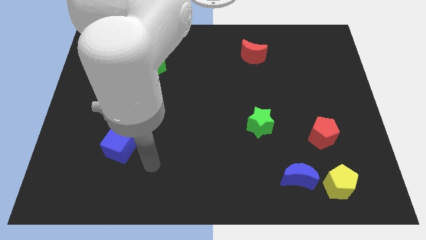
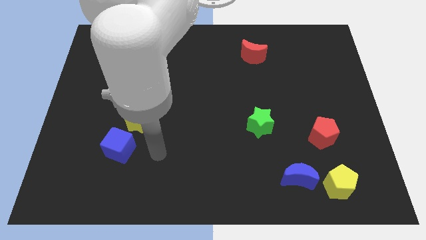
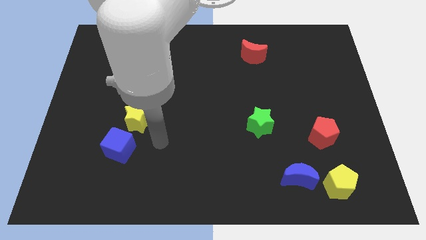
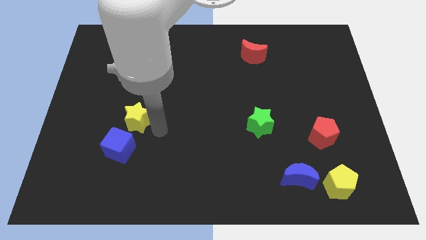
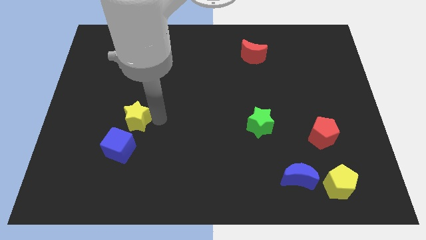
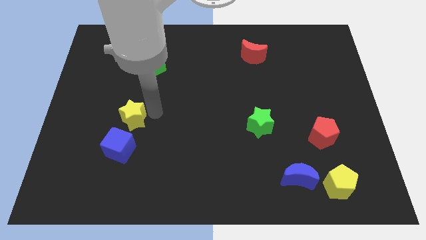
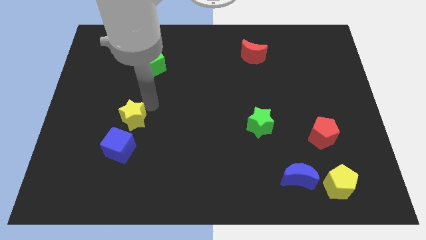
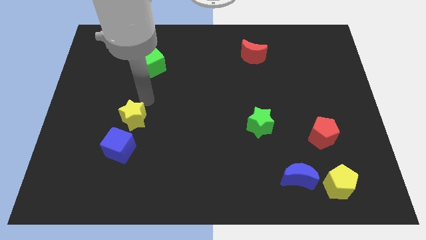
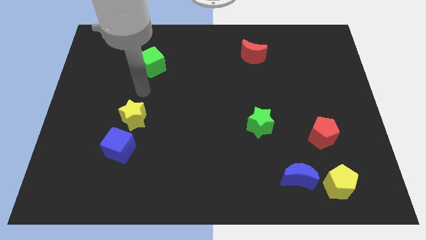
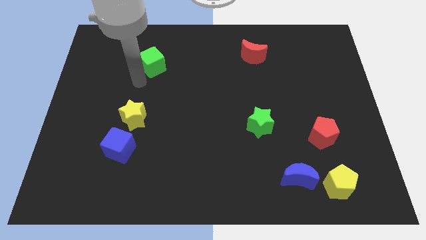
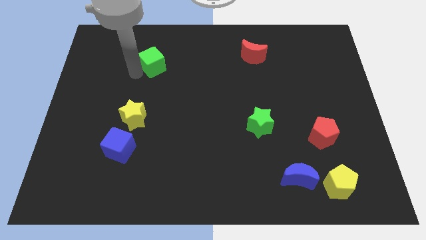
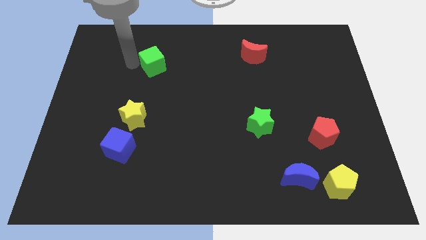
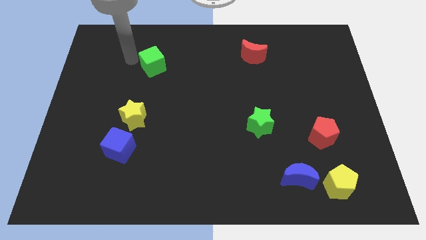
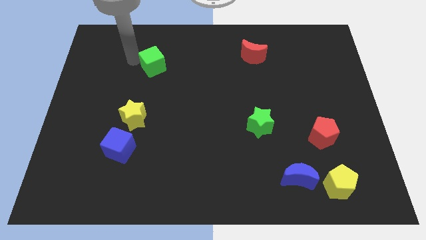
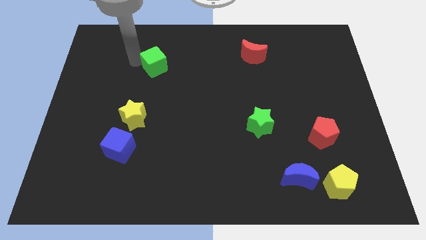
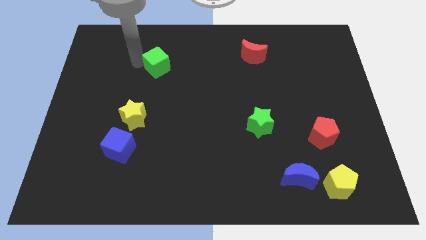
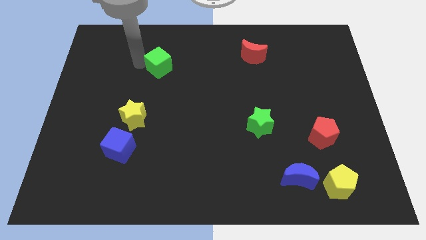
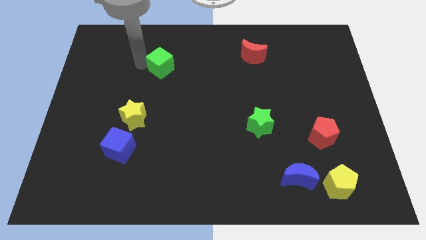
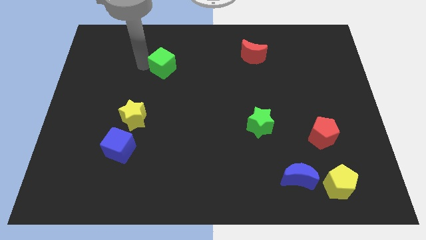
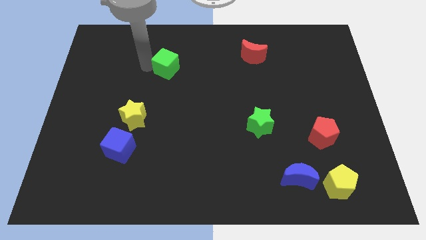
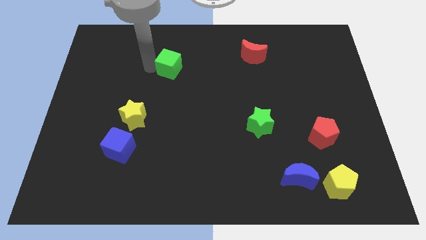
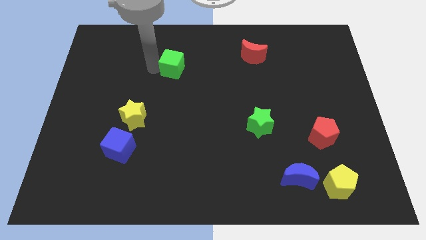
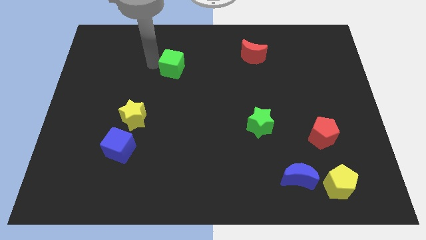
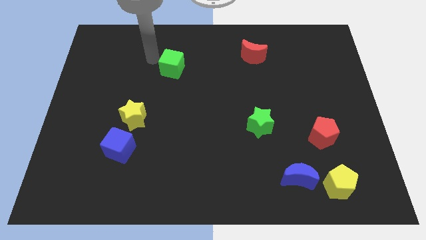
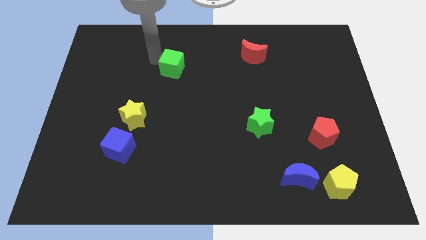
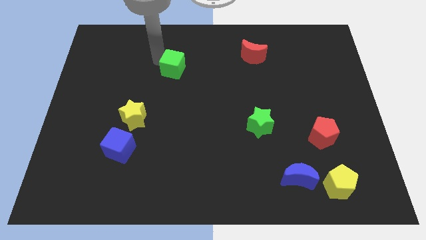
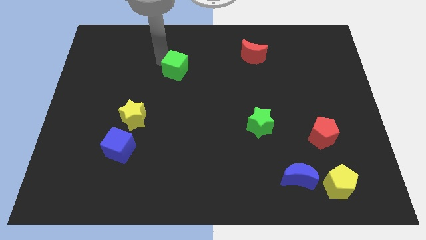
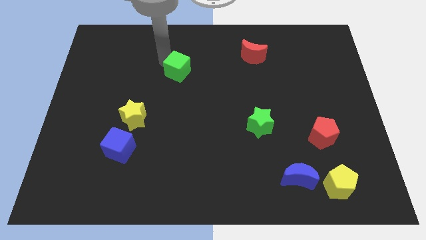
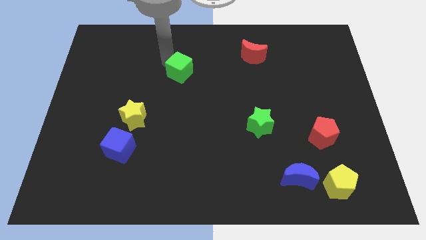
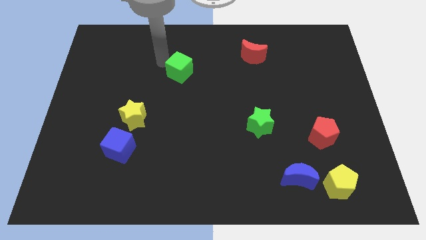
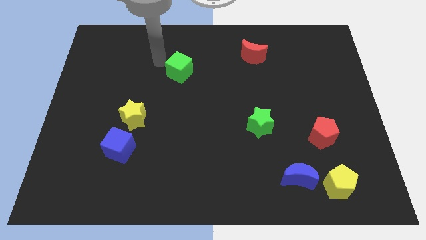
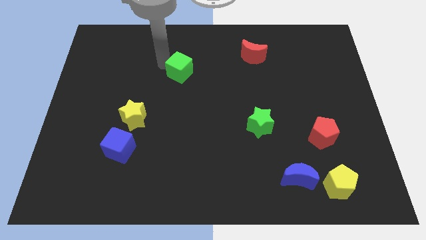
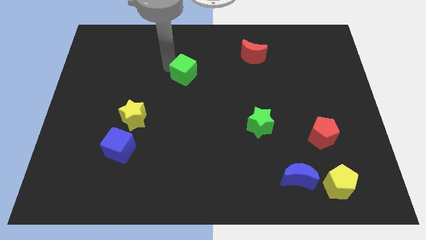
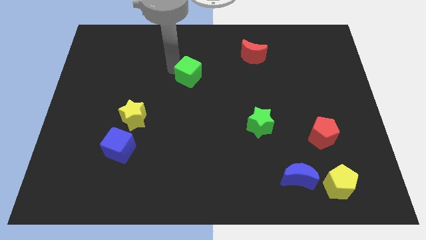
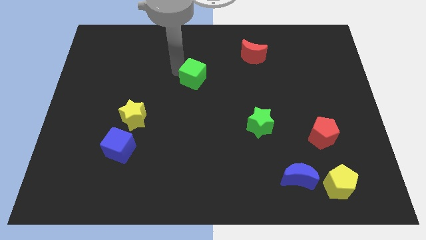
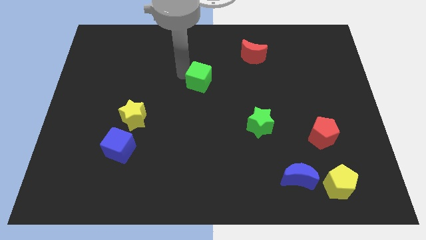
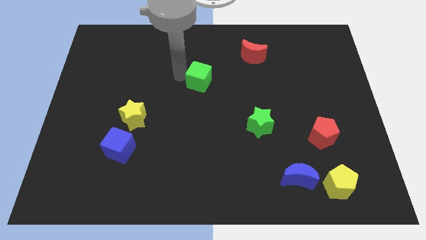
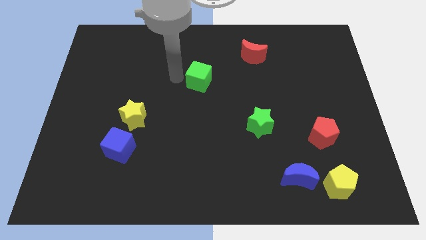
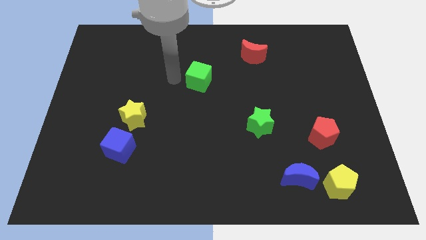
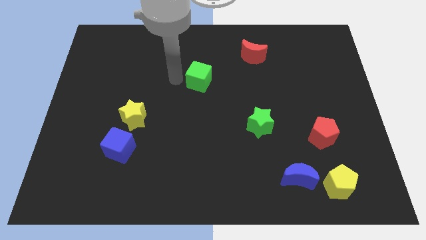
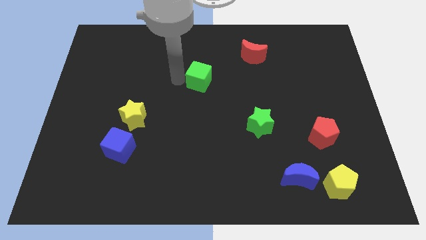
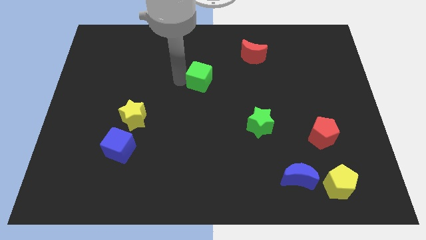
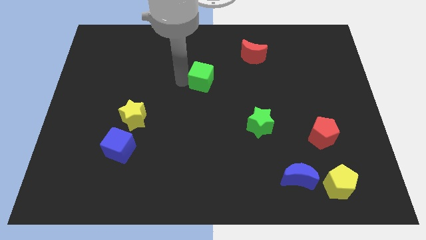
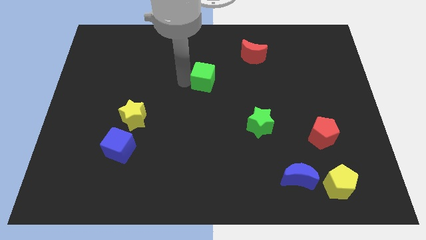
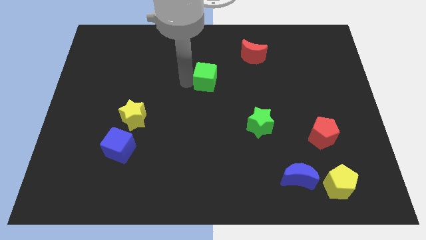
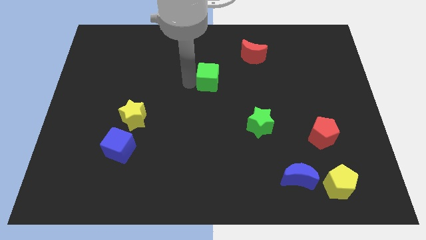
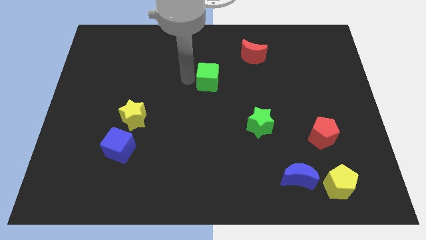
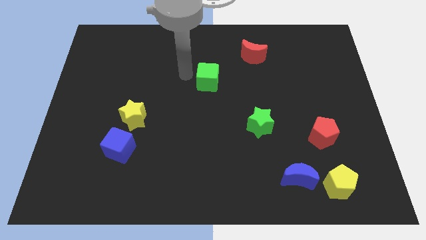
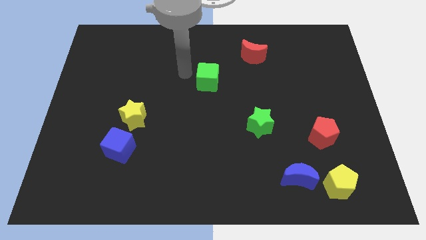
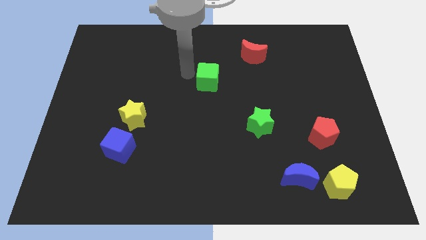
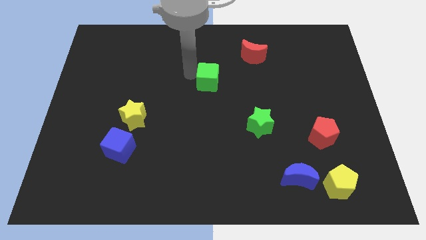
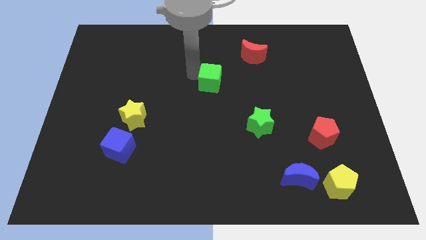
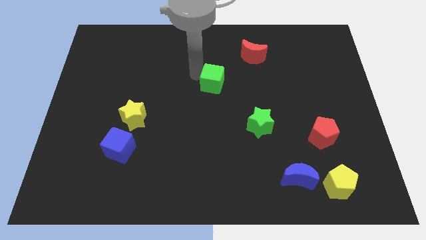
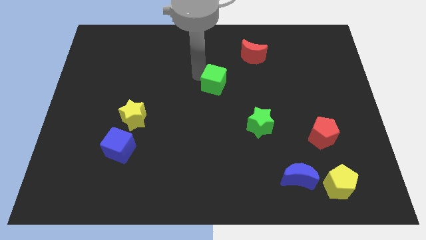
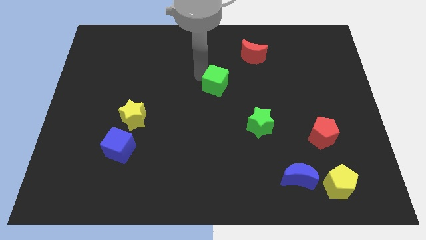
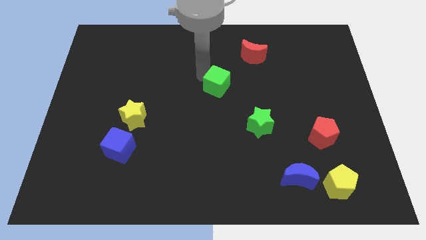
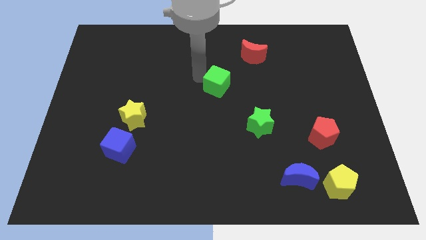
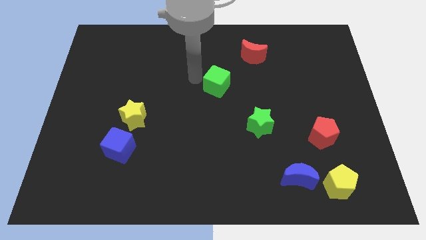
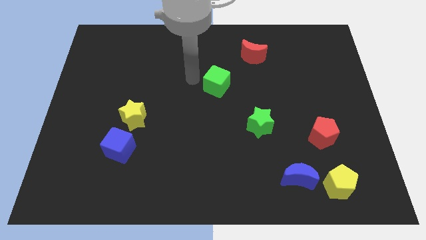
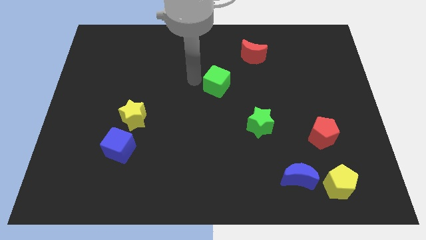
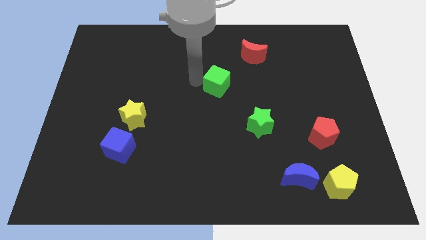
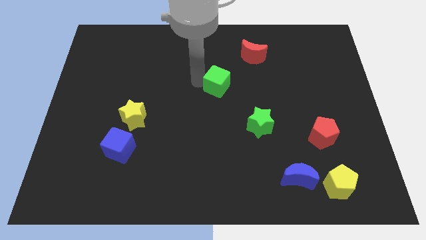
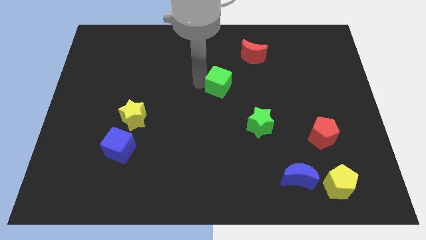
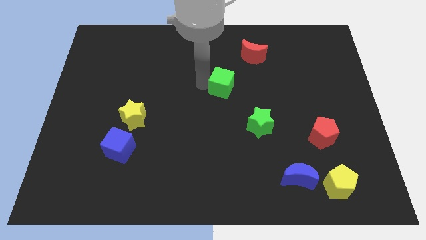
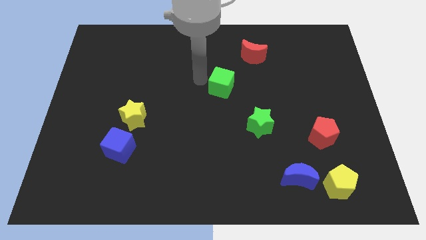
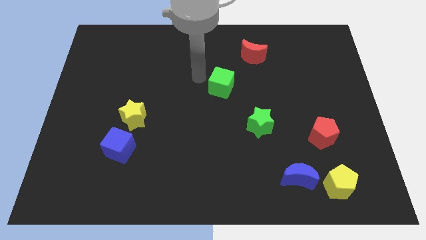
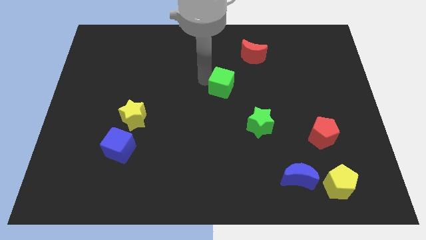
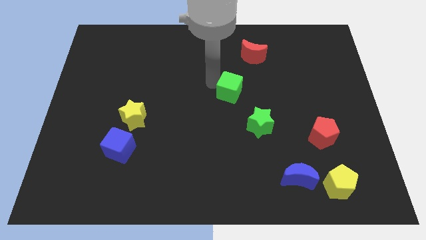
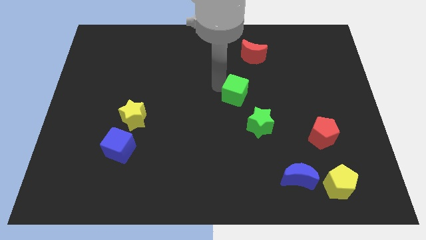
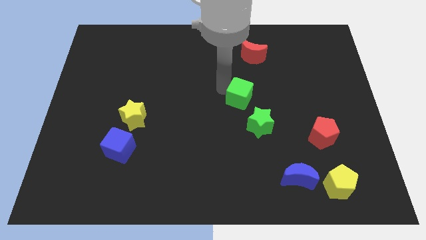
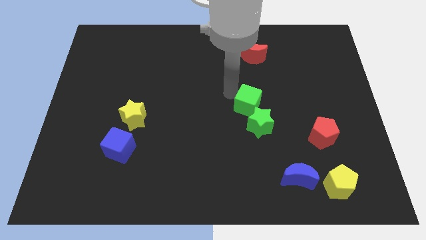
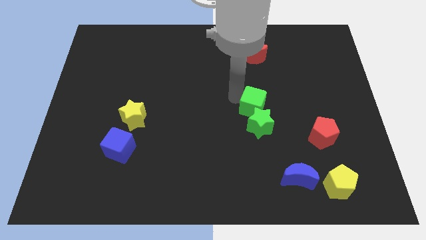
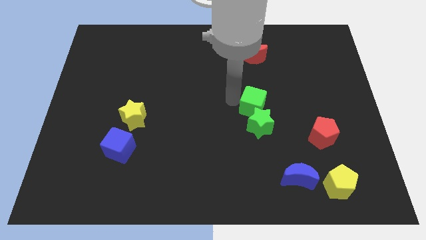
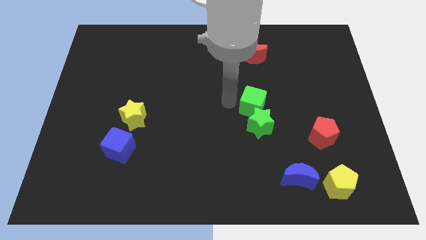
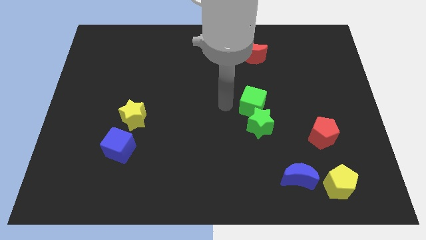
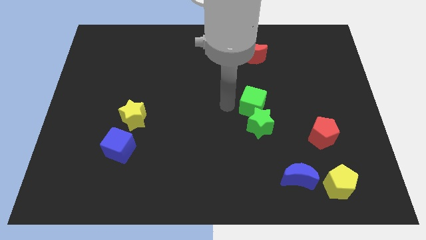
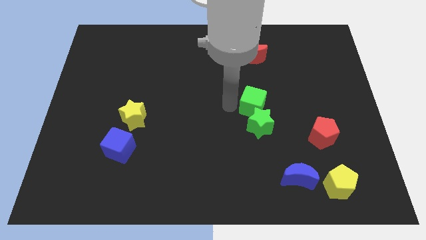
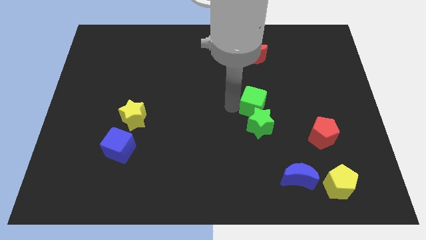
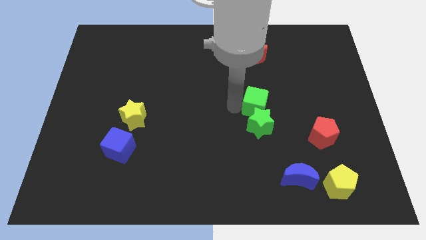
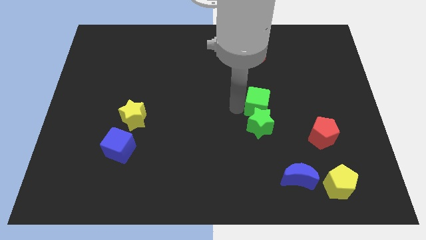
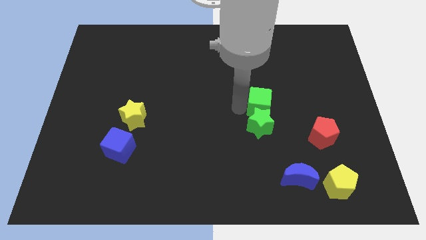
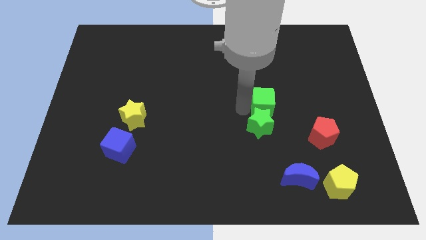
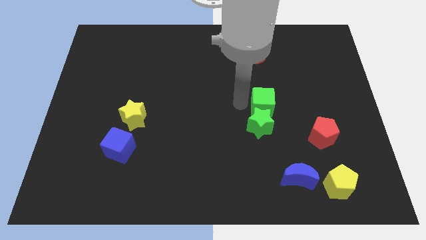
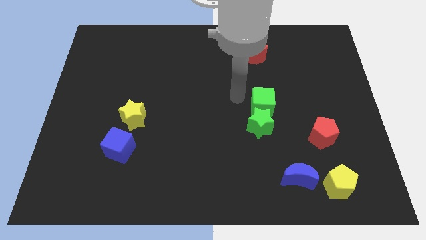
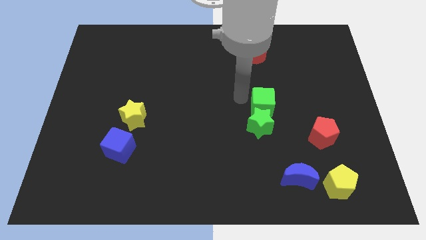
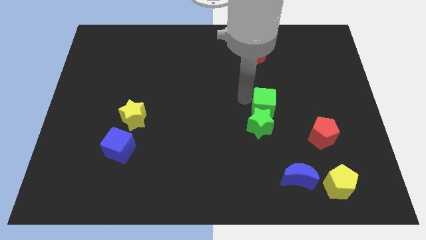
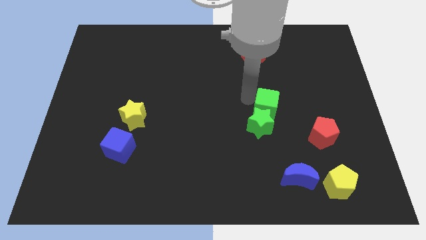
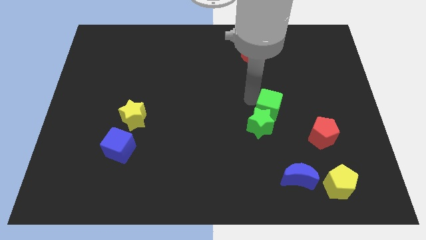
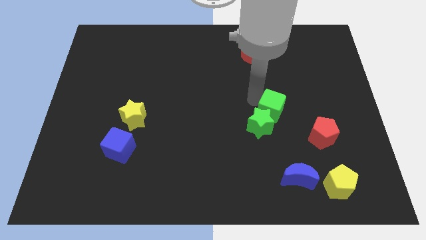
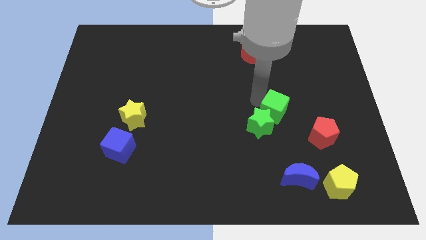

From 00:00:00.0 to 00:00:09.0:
slide the green cube to the top left side of the red pentagon
